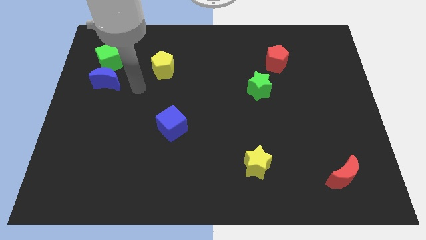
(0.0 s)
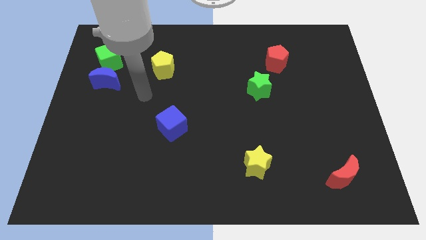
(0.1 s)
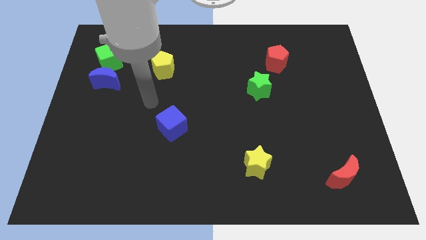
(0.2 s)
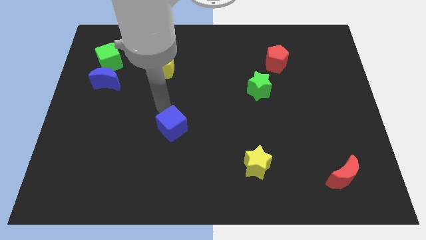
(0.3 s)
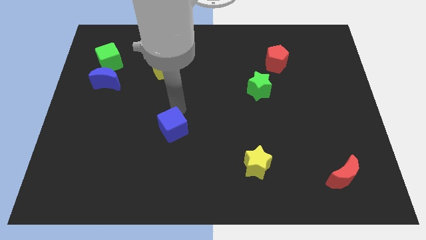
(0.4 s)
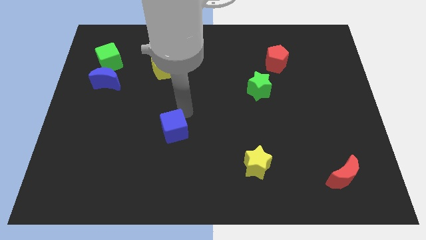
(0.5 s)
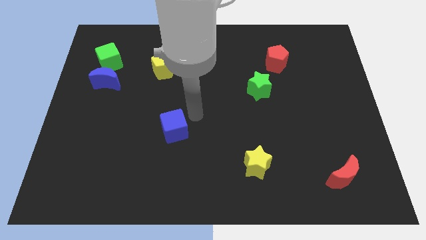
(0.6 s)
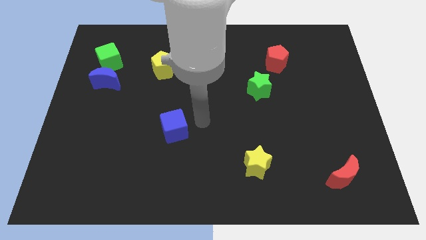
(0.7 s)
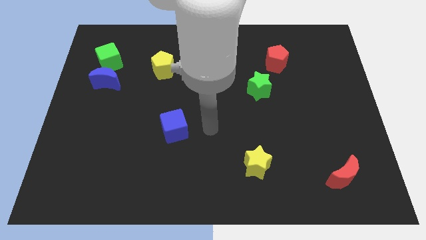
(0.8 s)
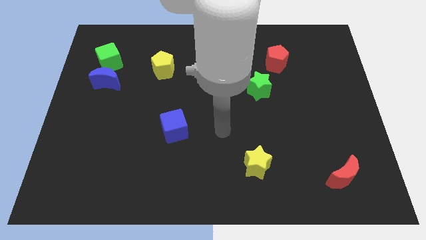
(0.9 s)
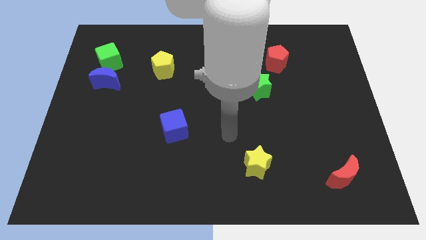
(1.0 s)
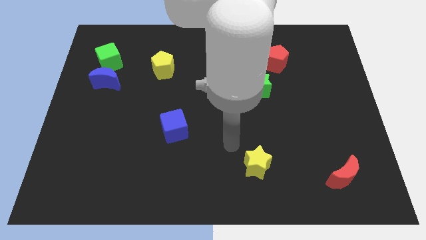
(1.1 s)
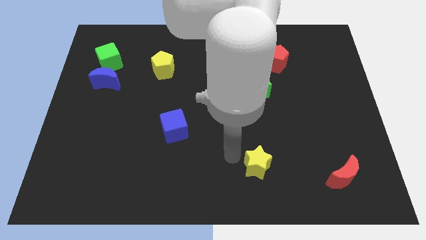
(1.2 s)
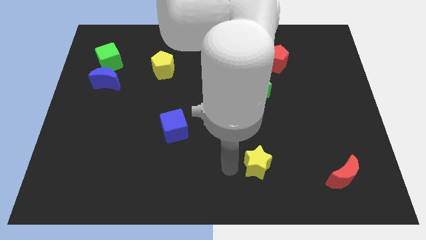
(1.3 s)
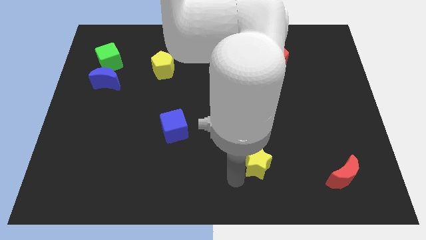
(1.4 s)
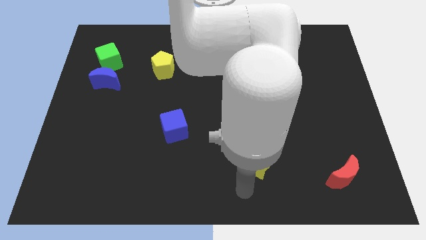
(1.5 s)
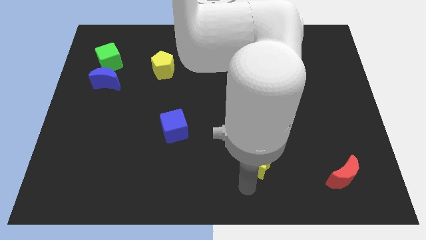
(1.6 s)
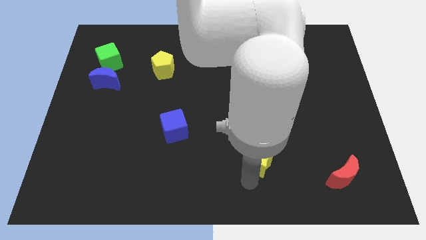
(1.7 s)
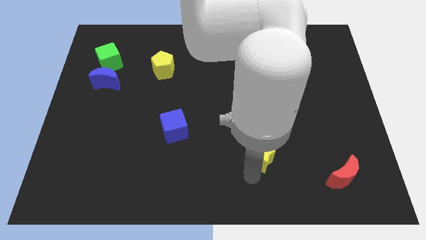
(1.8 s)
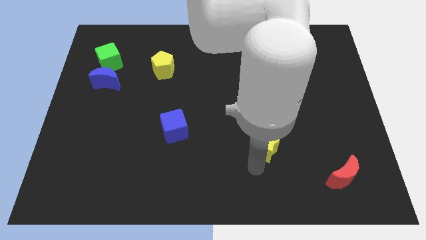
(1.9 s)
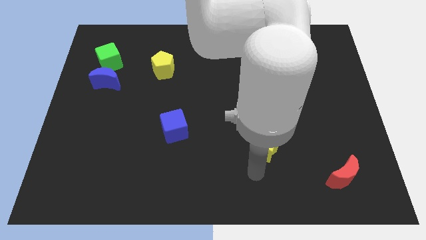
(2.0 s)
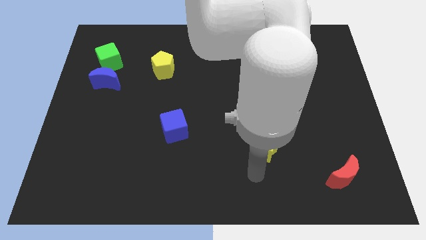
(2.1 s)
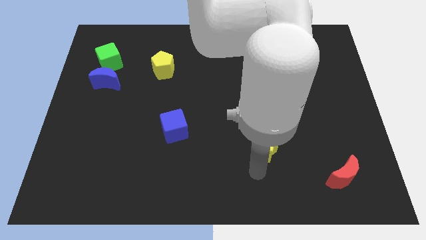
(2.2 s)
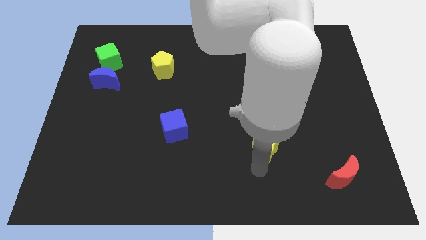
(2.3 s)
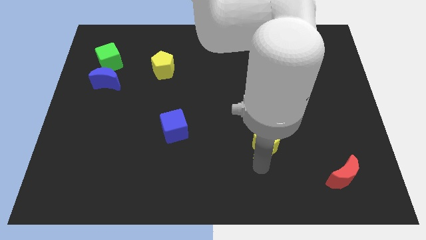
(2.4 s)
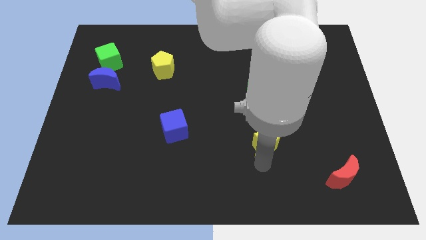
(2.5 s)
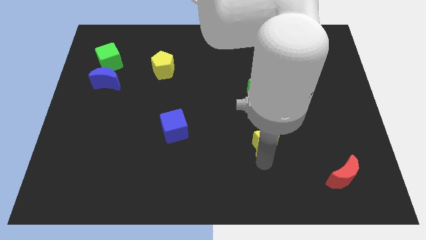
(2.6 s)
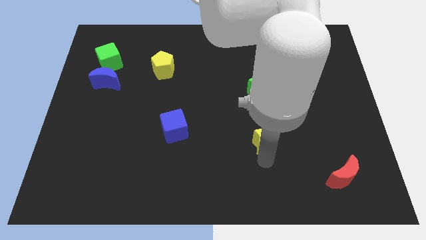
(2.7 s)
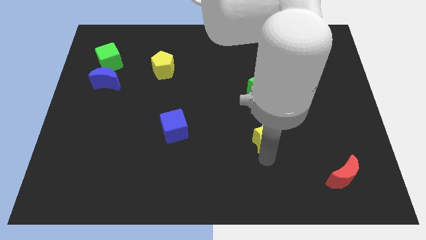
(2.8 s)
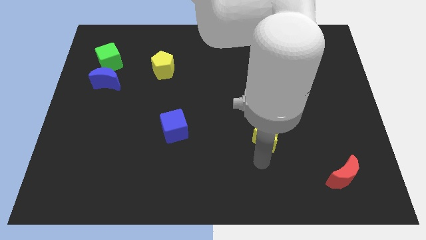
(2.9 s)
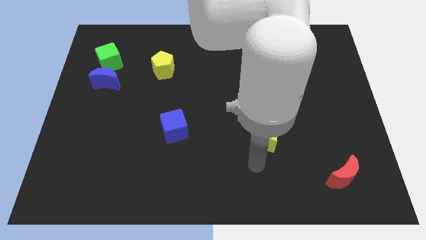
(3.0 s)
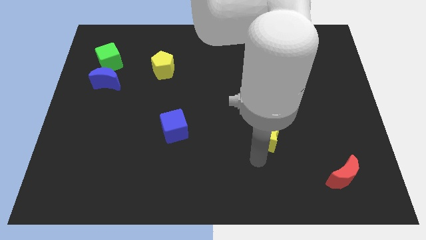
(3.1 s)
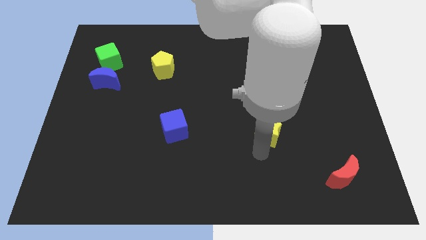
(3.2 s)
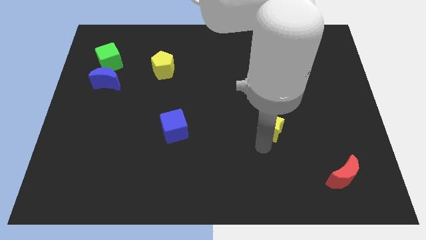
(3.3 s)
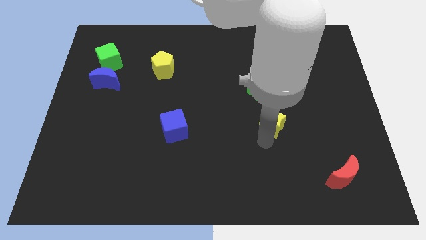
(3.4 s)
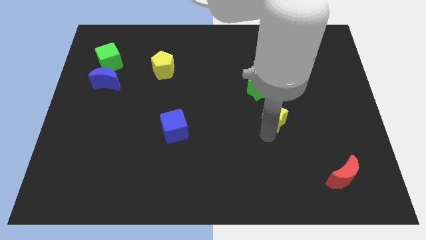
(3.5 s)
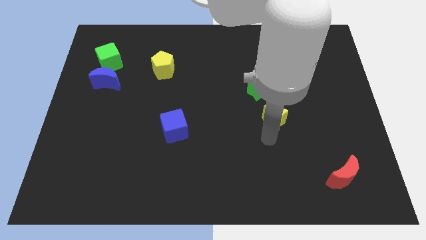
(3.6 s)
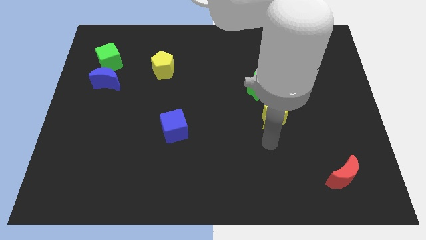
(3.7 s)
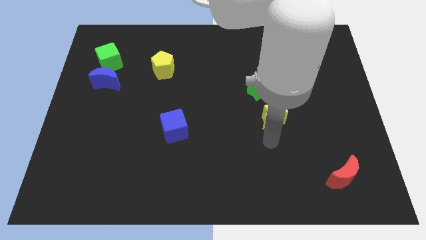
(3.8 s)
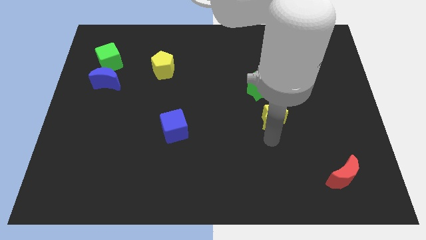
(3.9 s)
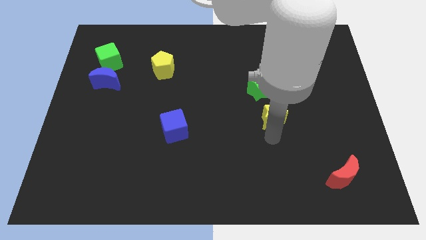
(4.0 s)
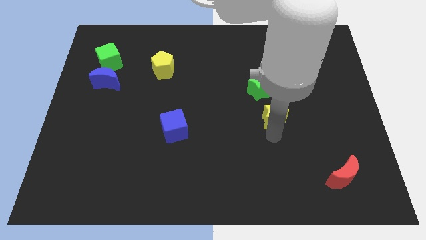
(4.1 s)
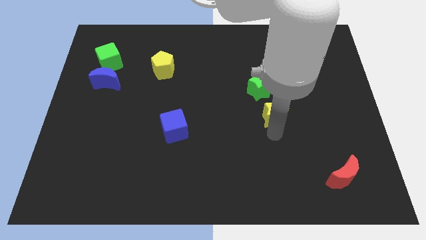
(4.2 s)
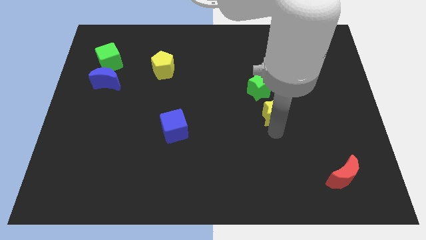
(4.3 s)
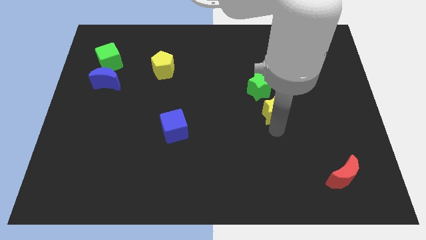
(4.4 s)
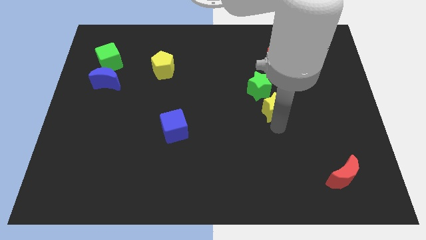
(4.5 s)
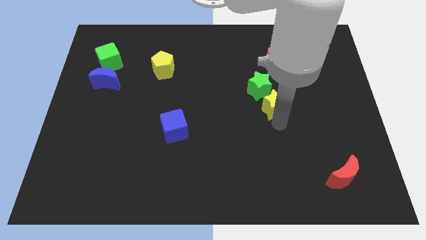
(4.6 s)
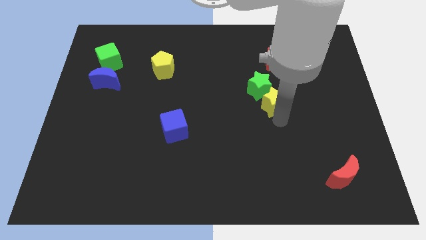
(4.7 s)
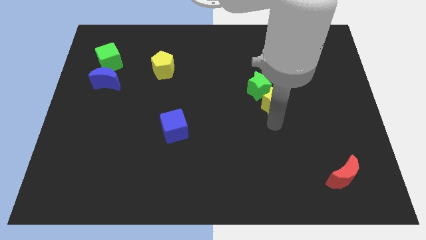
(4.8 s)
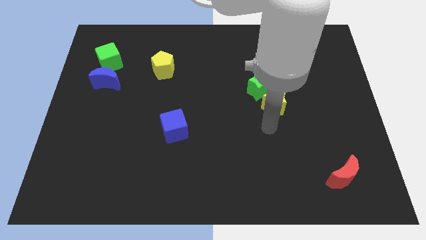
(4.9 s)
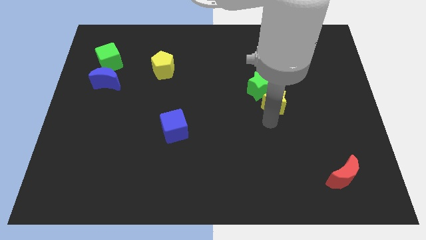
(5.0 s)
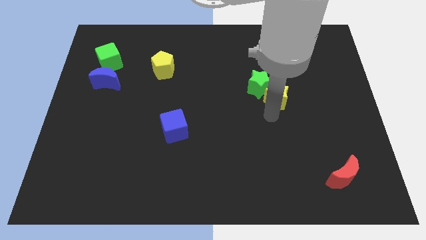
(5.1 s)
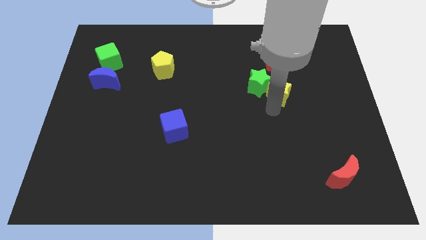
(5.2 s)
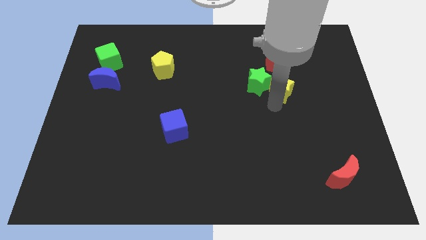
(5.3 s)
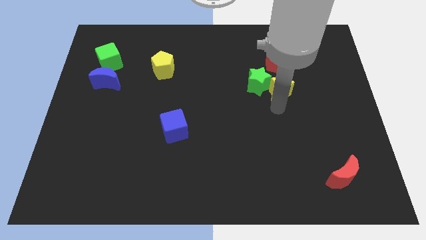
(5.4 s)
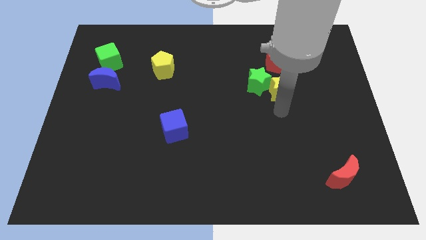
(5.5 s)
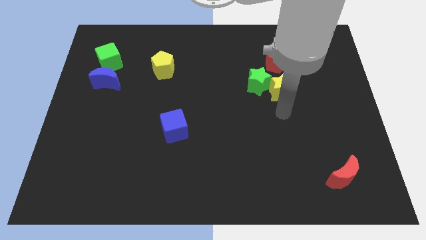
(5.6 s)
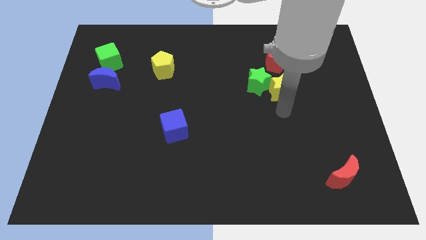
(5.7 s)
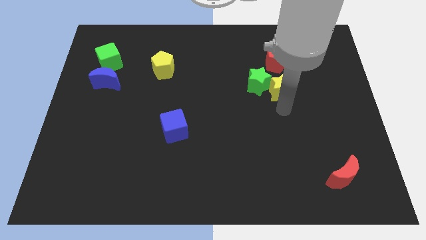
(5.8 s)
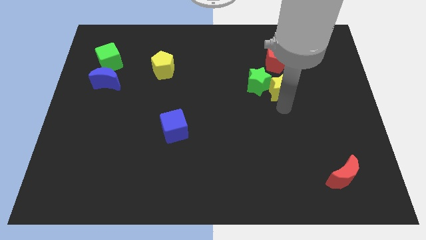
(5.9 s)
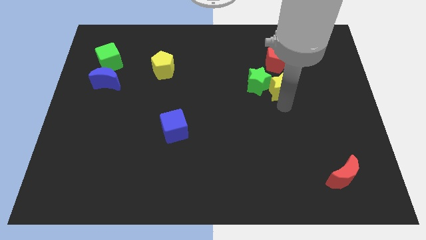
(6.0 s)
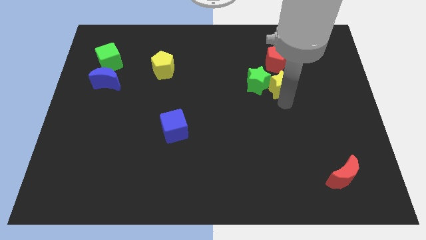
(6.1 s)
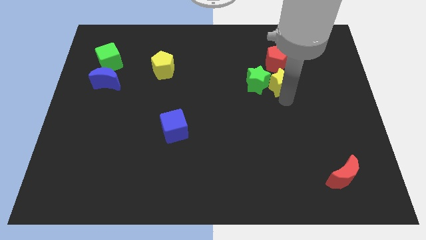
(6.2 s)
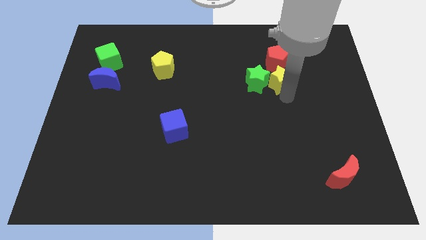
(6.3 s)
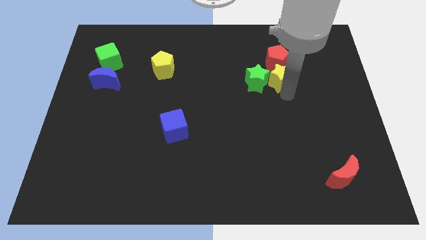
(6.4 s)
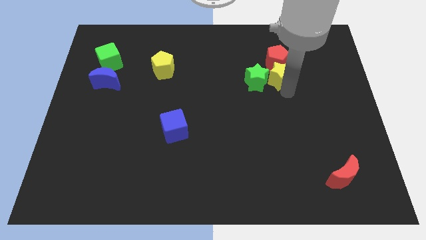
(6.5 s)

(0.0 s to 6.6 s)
move the yellow star next to the red pentagon
